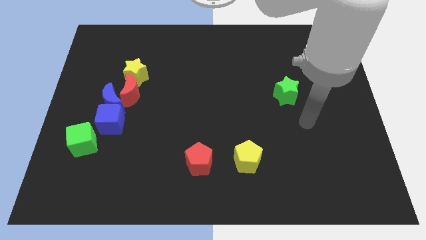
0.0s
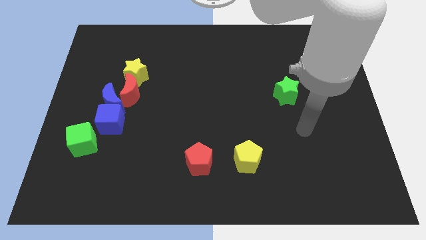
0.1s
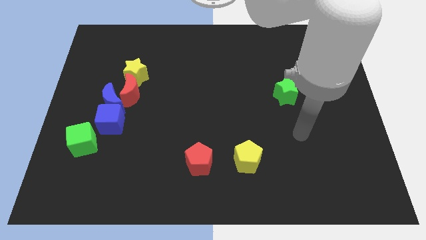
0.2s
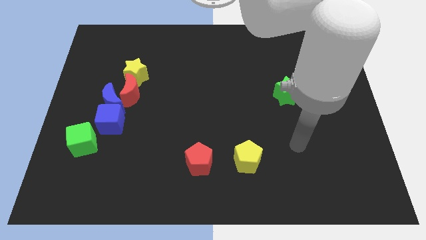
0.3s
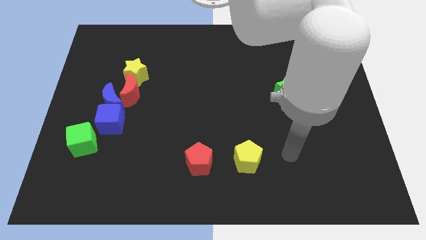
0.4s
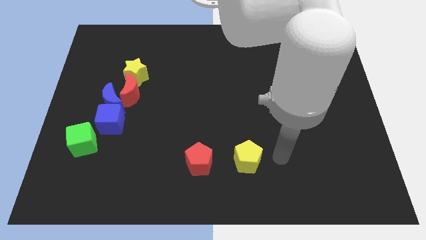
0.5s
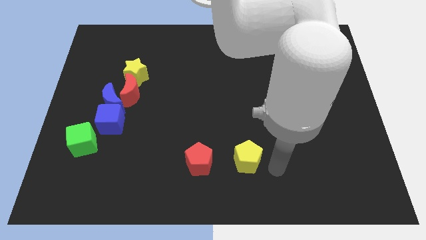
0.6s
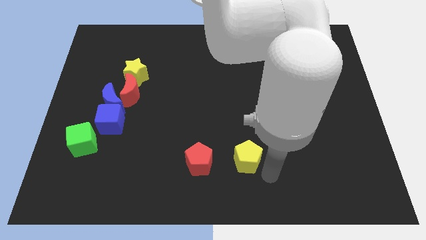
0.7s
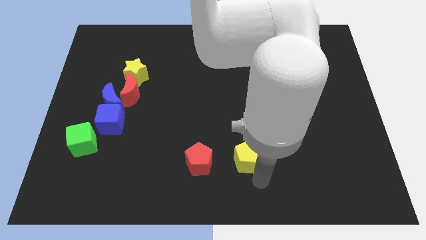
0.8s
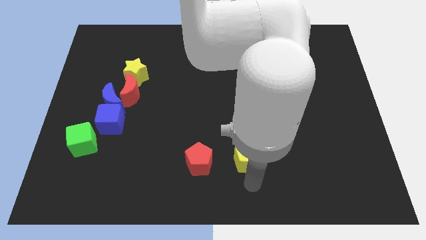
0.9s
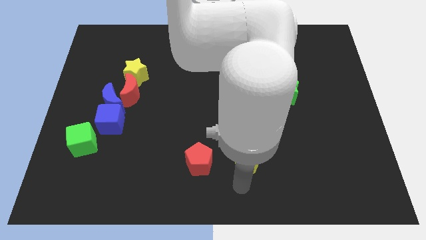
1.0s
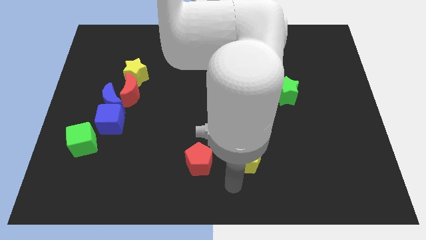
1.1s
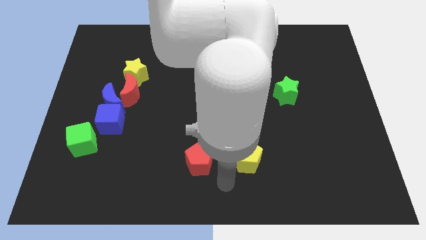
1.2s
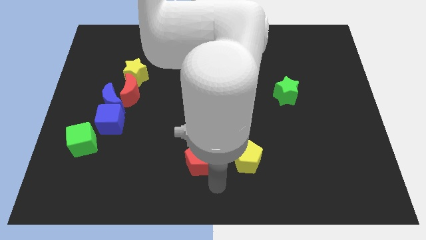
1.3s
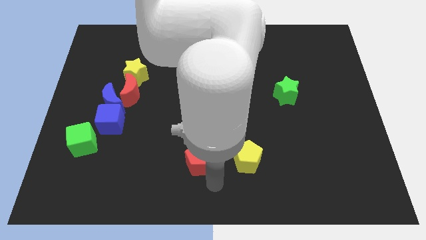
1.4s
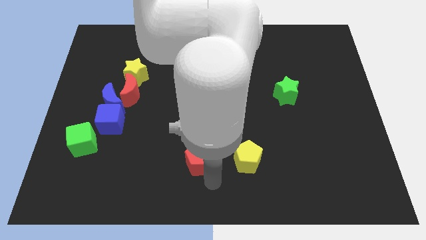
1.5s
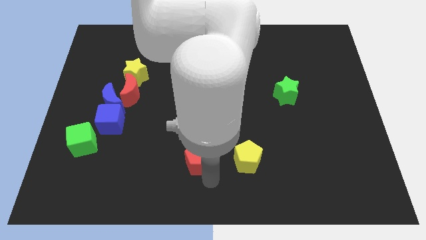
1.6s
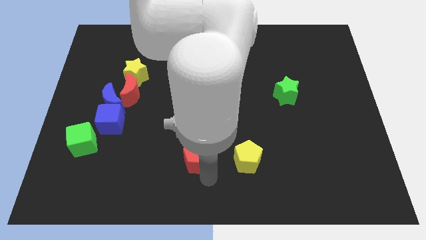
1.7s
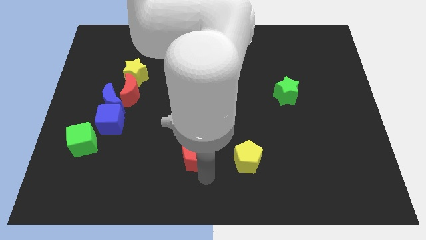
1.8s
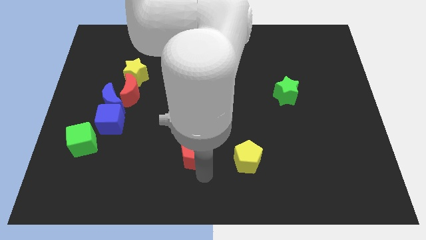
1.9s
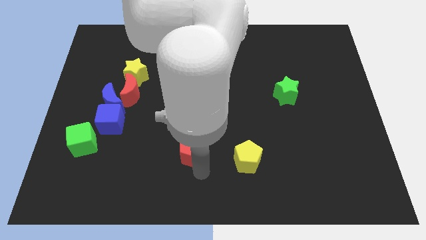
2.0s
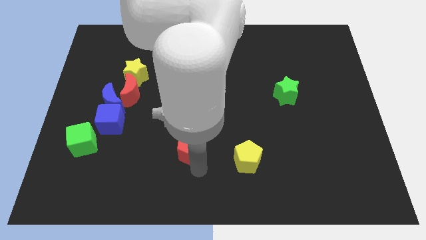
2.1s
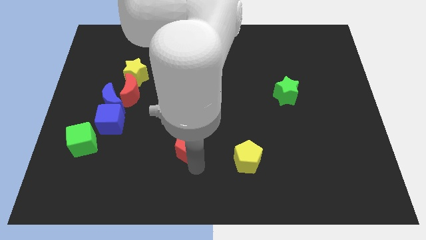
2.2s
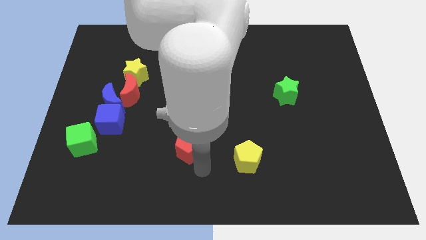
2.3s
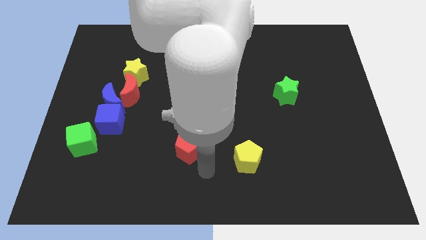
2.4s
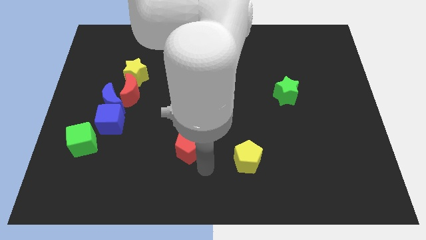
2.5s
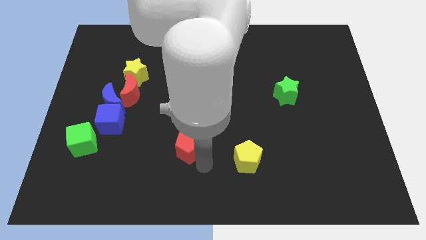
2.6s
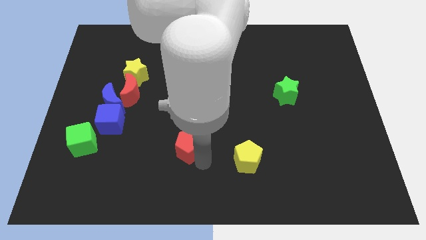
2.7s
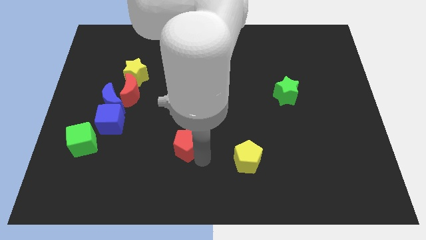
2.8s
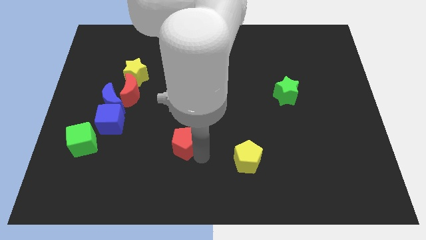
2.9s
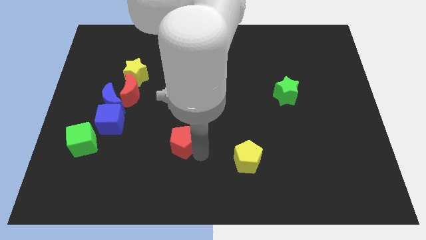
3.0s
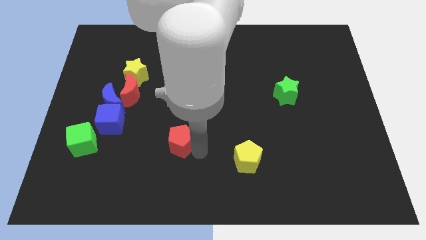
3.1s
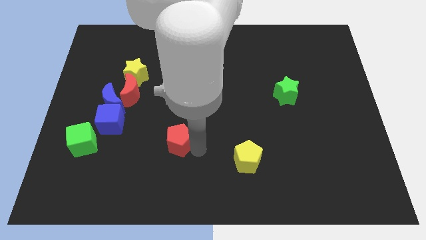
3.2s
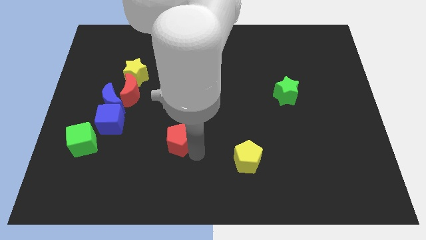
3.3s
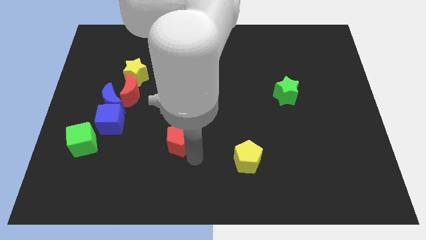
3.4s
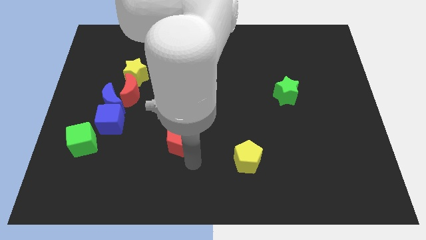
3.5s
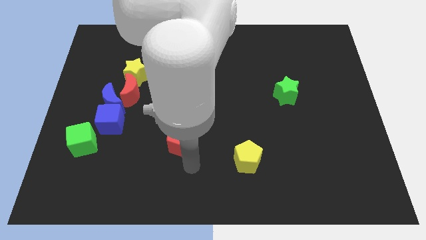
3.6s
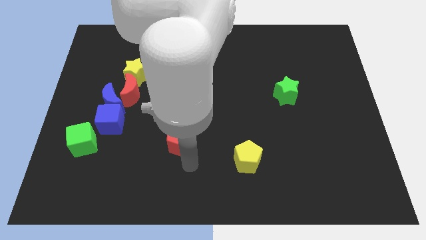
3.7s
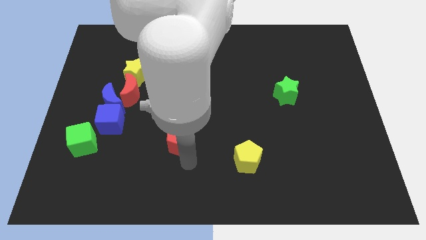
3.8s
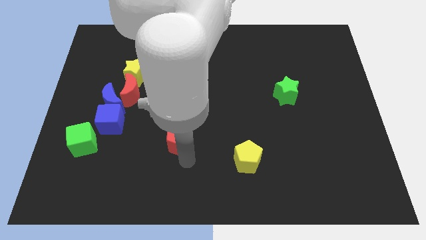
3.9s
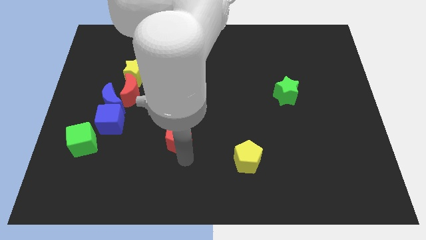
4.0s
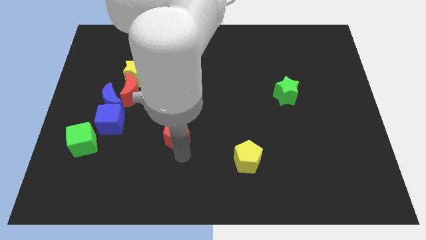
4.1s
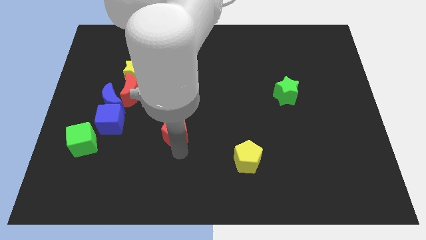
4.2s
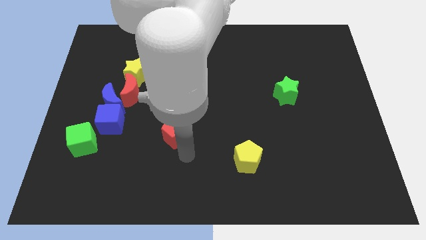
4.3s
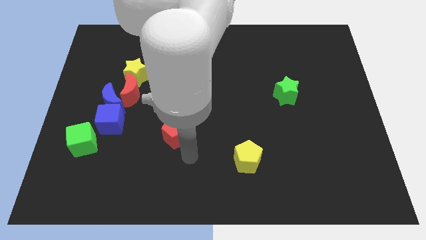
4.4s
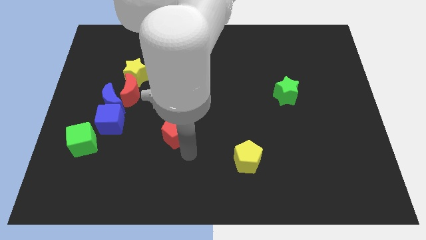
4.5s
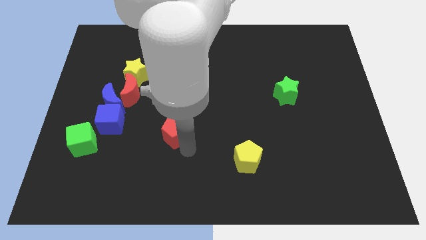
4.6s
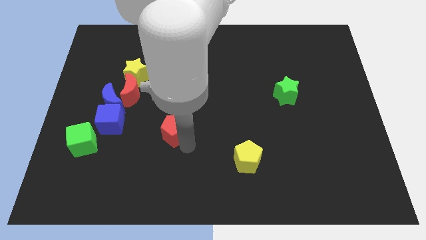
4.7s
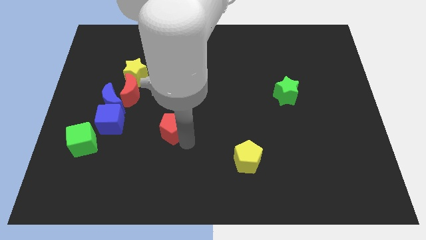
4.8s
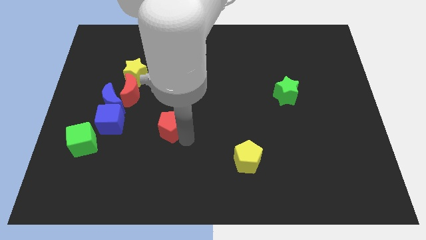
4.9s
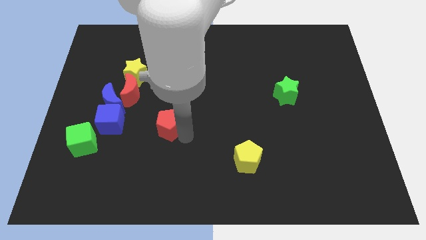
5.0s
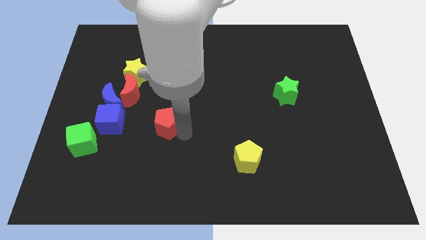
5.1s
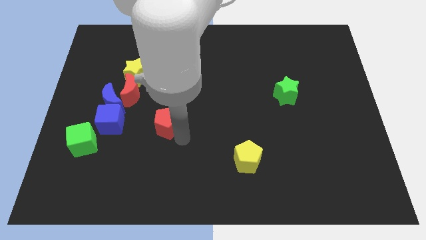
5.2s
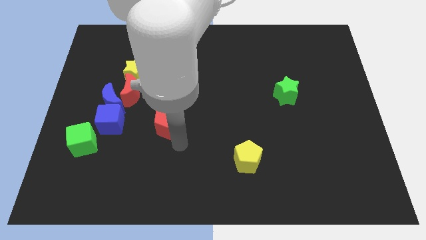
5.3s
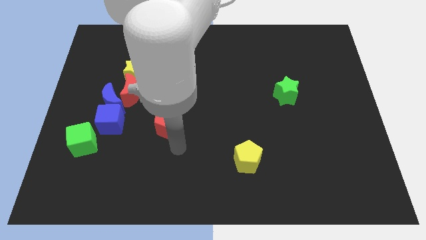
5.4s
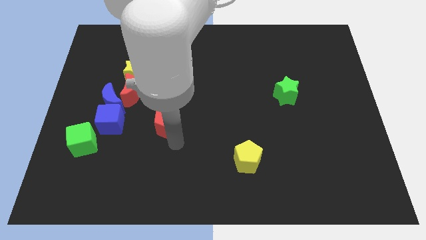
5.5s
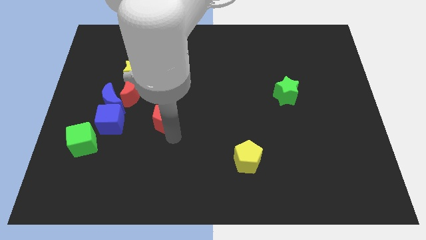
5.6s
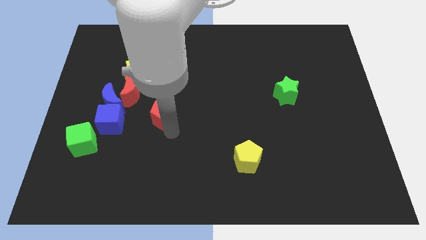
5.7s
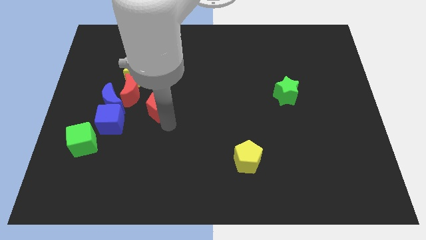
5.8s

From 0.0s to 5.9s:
move the red pentagon to the bottom right side of the yellow star

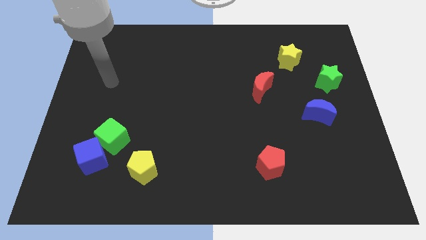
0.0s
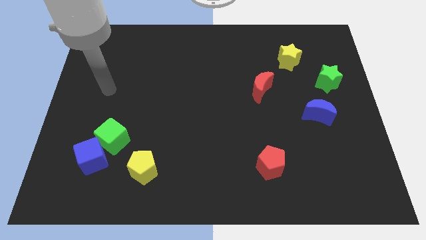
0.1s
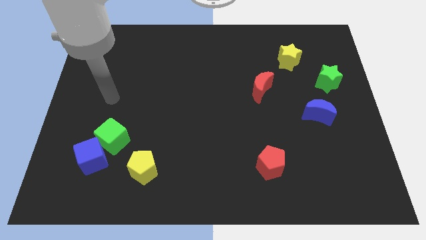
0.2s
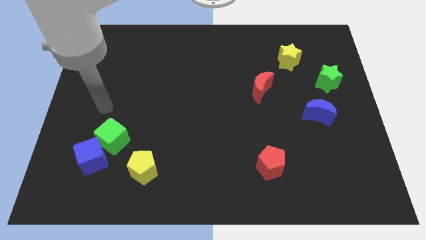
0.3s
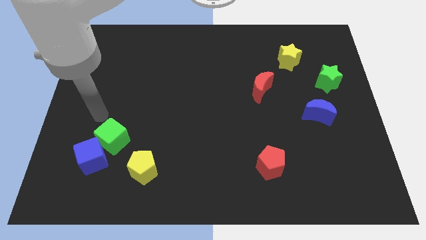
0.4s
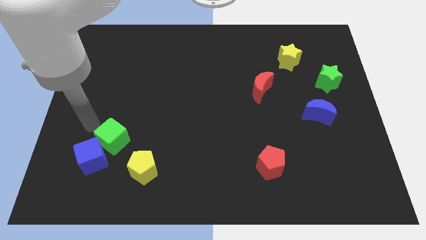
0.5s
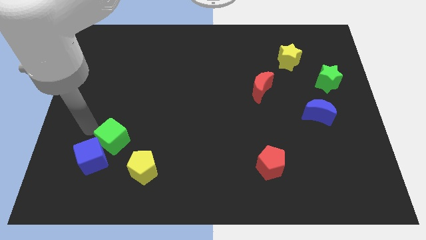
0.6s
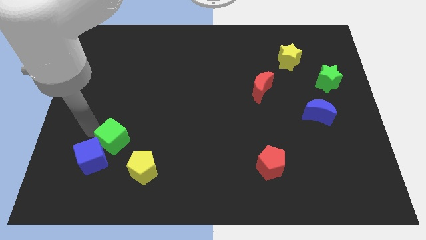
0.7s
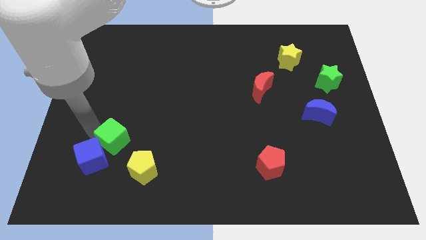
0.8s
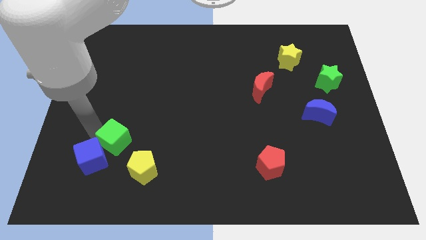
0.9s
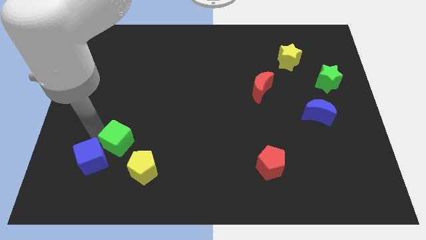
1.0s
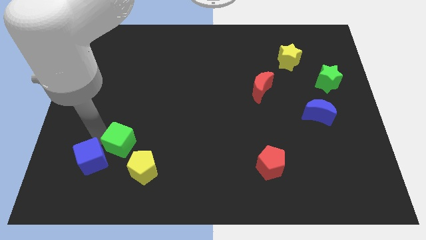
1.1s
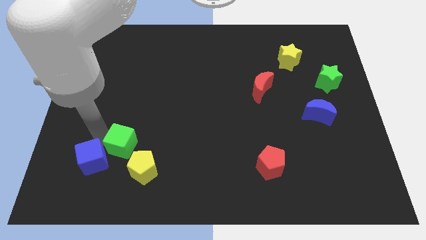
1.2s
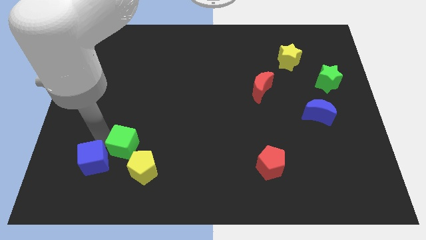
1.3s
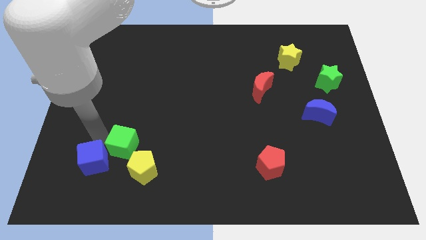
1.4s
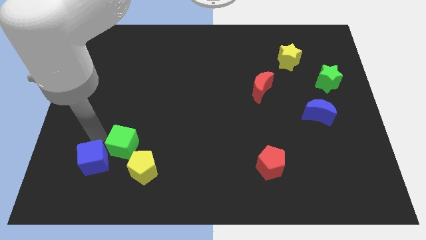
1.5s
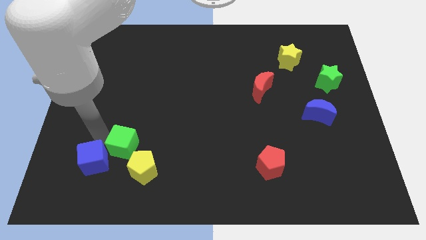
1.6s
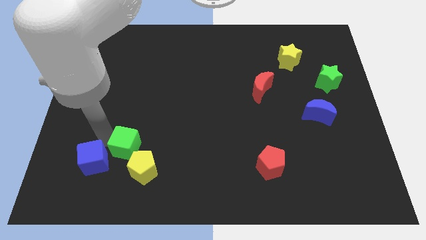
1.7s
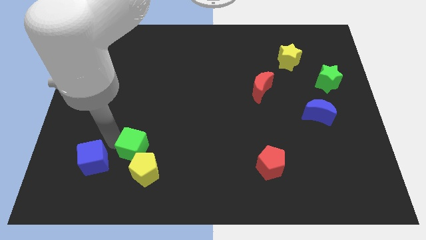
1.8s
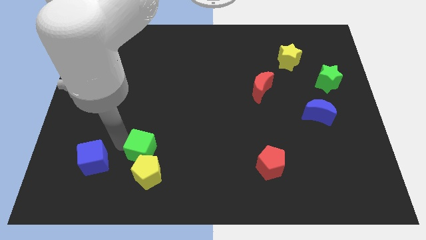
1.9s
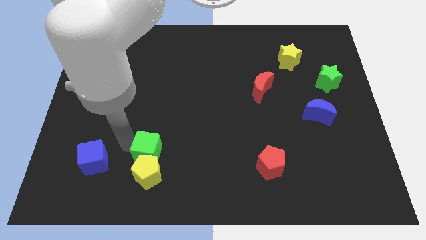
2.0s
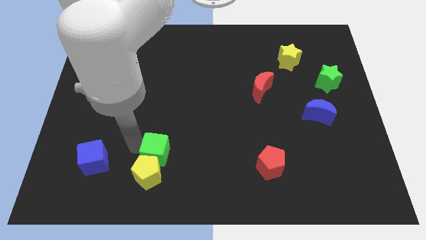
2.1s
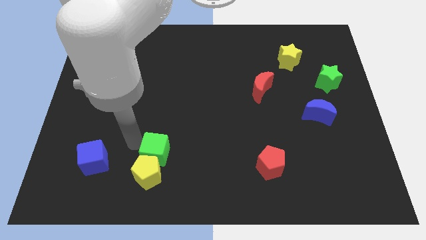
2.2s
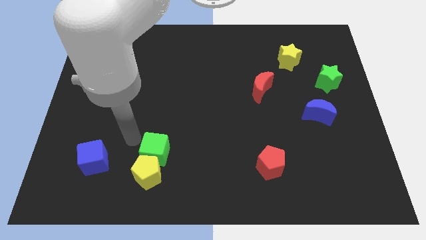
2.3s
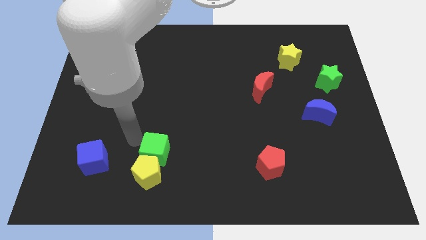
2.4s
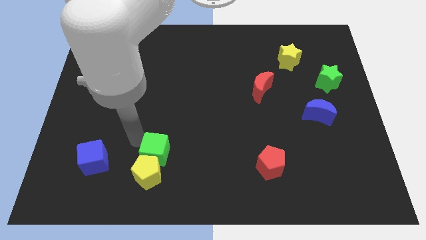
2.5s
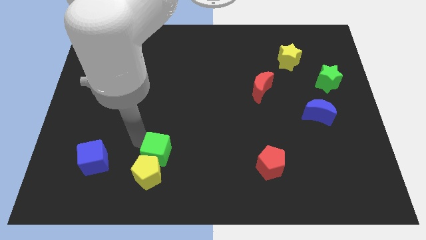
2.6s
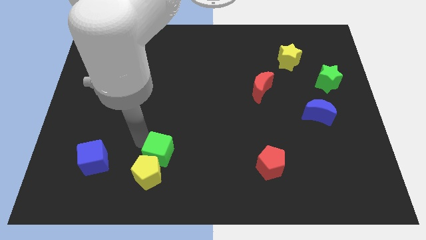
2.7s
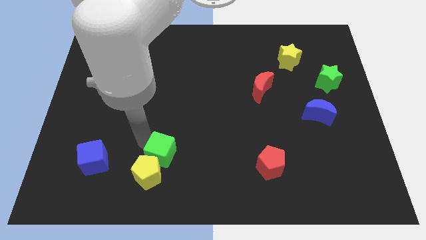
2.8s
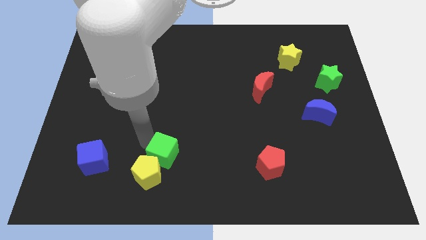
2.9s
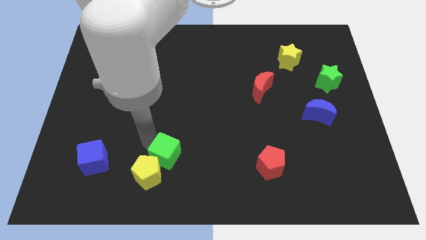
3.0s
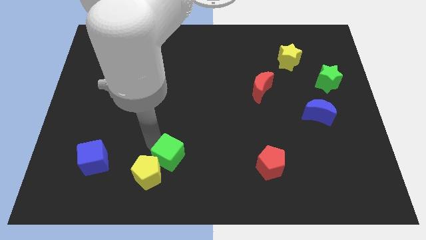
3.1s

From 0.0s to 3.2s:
push the green cube right of the yellow pentagon
